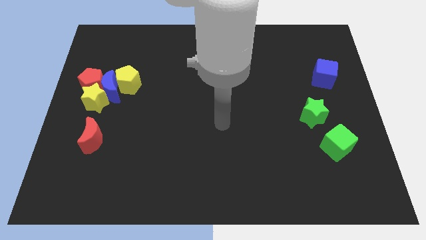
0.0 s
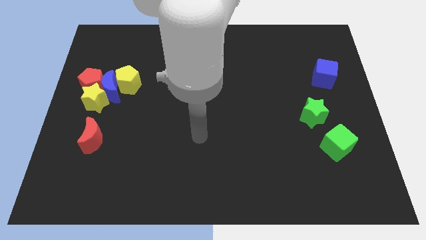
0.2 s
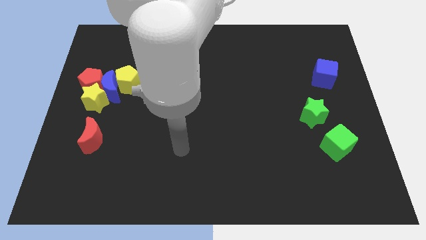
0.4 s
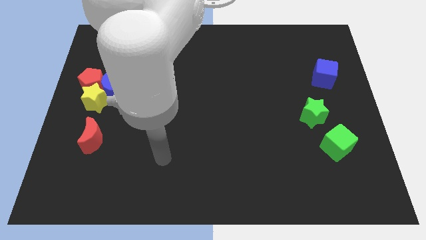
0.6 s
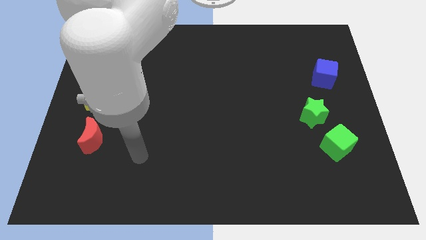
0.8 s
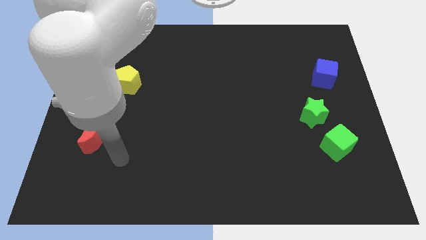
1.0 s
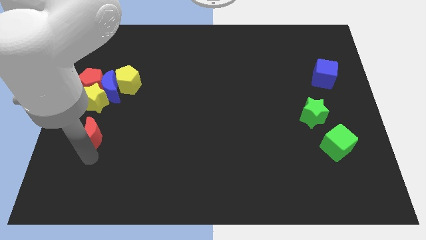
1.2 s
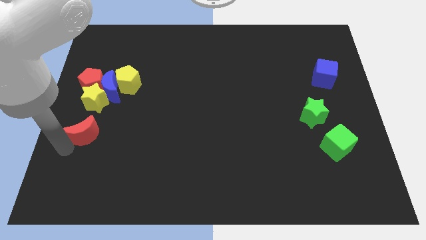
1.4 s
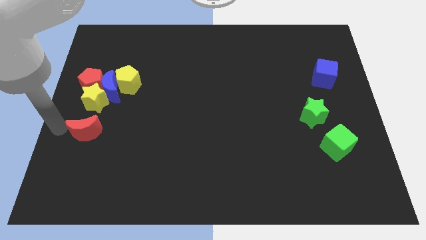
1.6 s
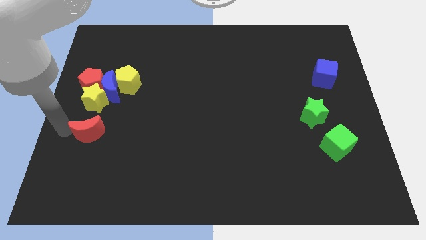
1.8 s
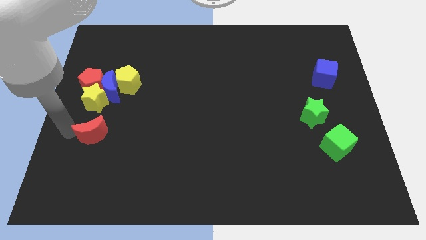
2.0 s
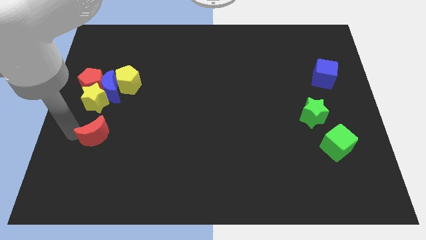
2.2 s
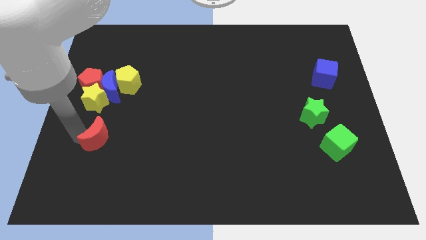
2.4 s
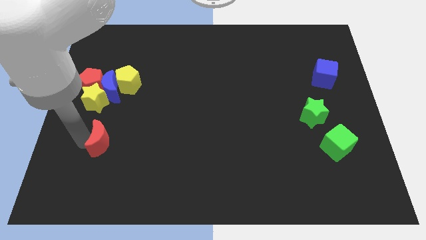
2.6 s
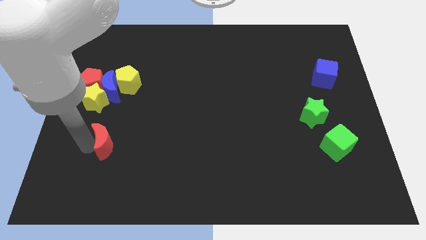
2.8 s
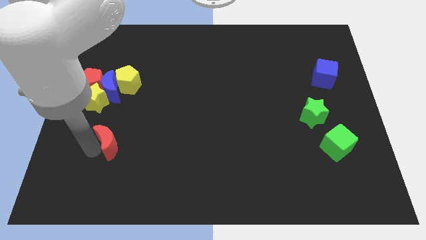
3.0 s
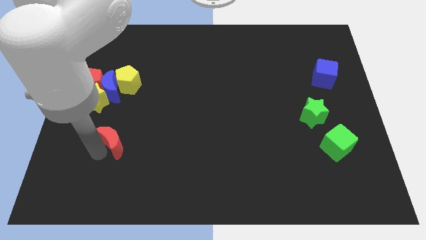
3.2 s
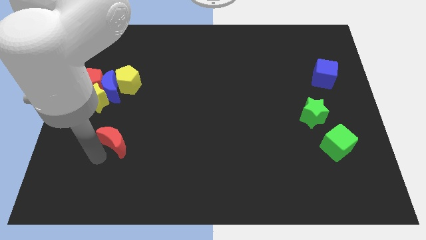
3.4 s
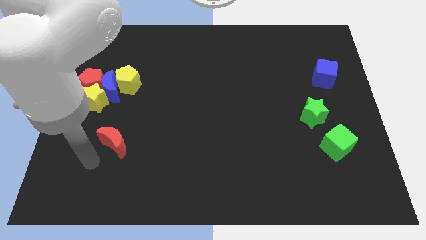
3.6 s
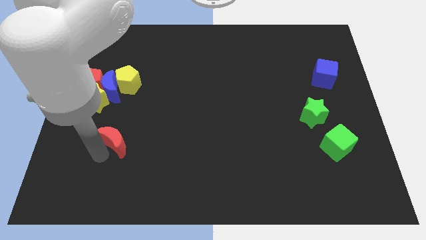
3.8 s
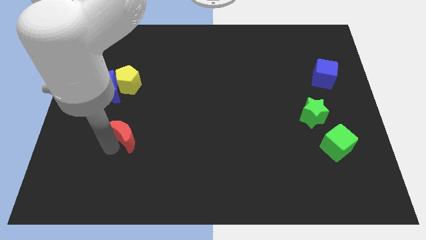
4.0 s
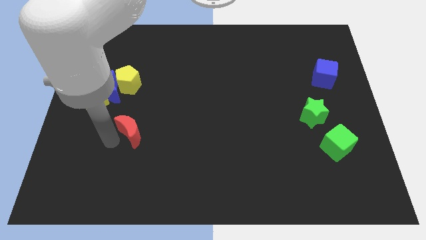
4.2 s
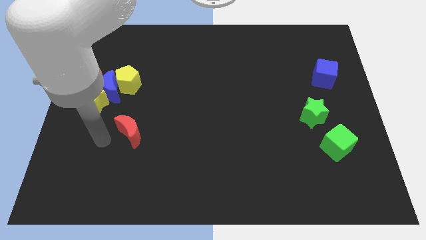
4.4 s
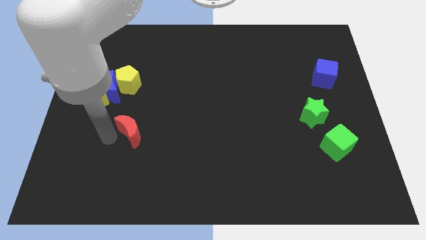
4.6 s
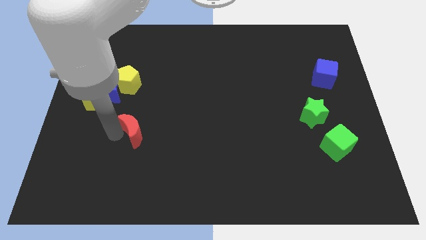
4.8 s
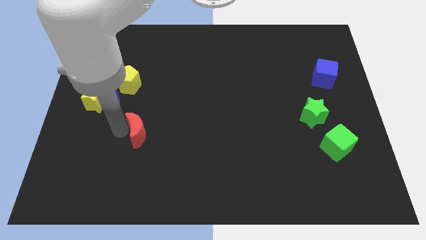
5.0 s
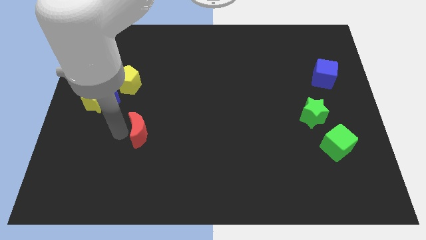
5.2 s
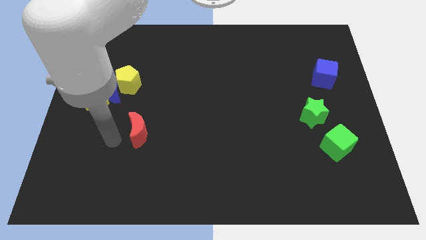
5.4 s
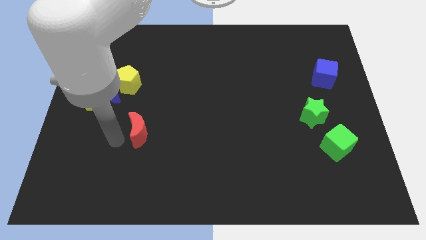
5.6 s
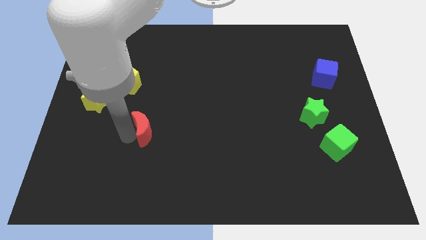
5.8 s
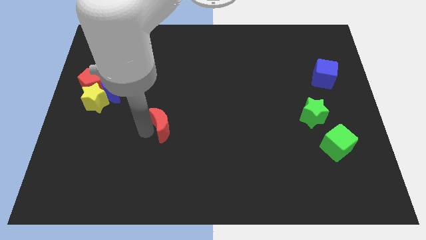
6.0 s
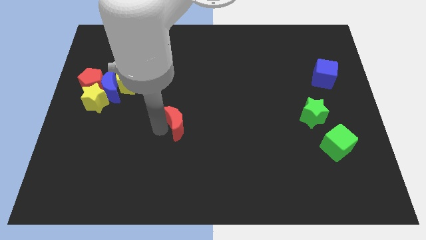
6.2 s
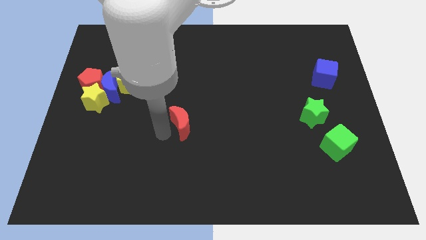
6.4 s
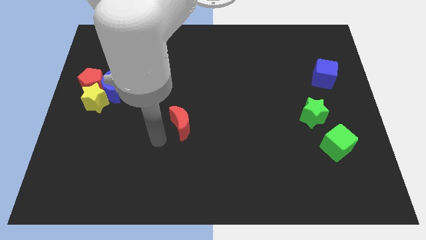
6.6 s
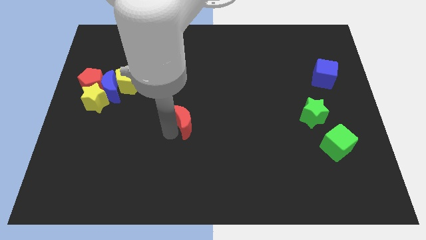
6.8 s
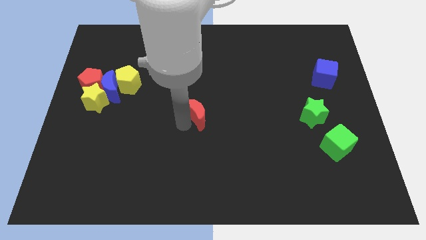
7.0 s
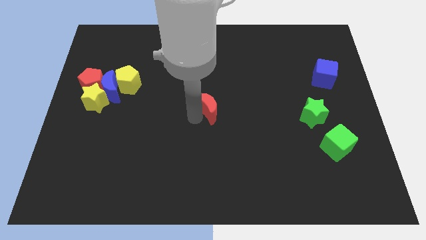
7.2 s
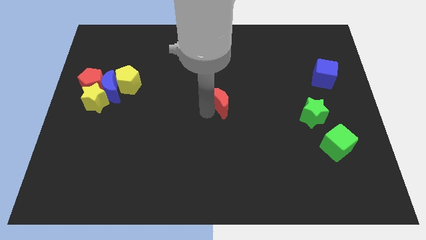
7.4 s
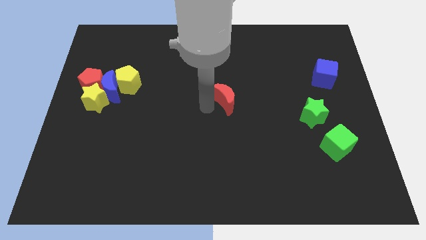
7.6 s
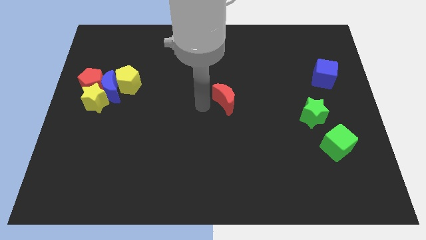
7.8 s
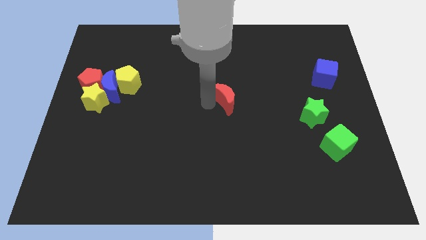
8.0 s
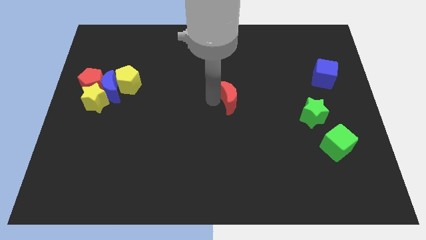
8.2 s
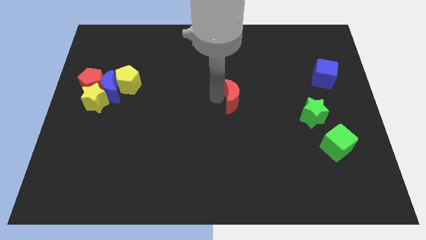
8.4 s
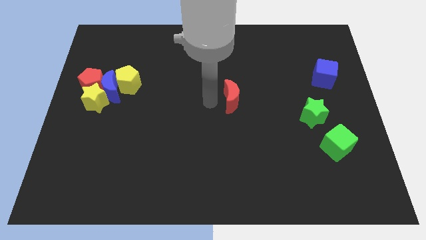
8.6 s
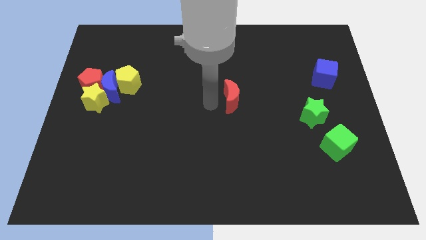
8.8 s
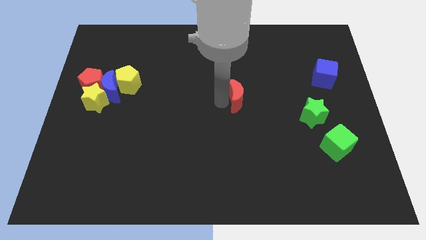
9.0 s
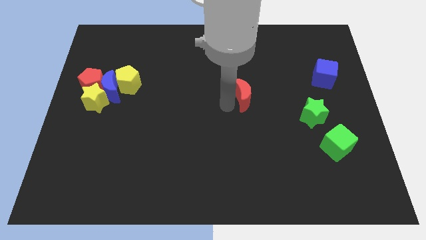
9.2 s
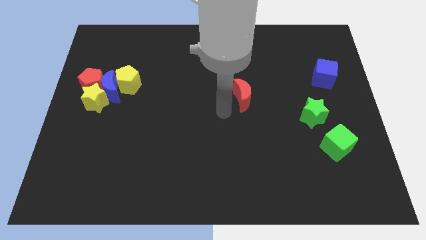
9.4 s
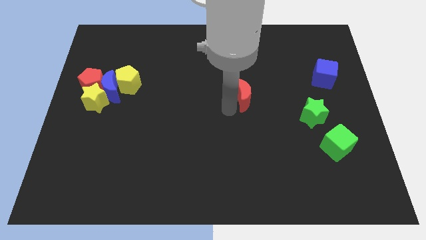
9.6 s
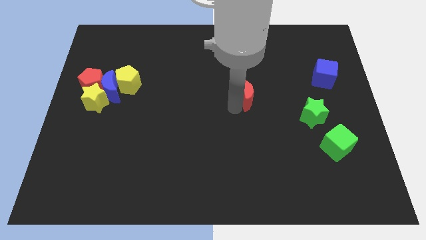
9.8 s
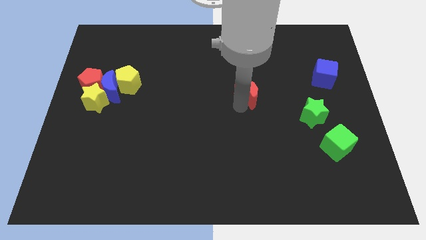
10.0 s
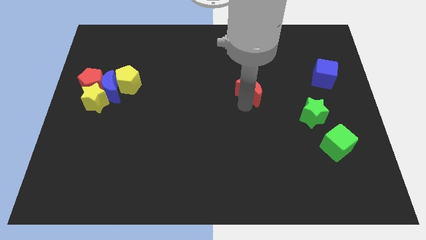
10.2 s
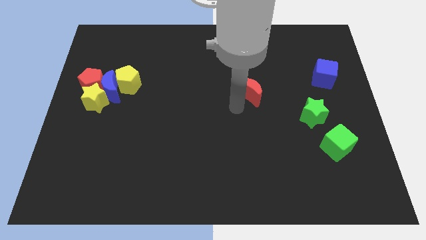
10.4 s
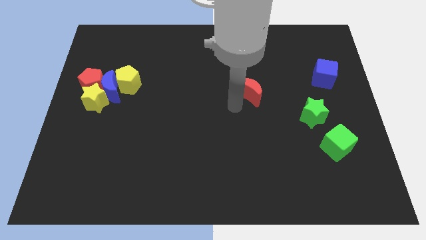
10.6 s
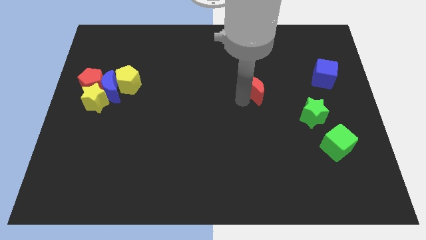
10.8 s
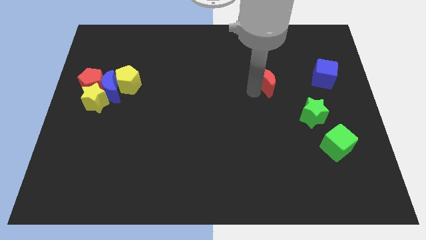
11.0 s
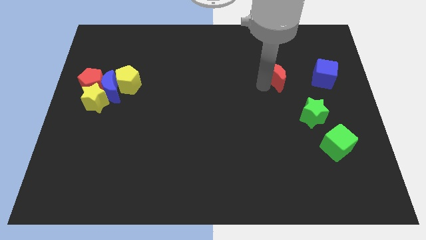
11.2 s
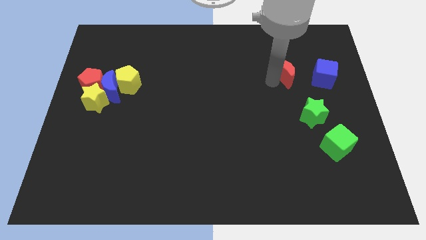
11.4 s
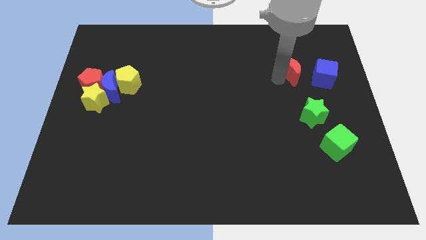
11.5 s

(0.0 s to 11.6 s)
slide the red moon to the top left of the blue cube

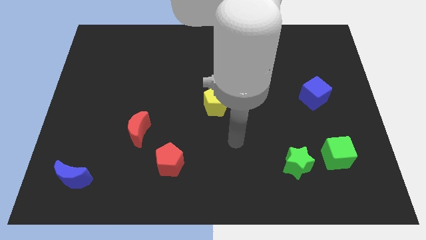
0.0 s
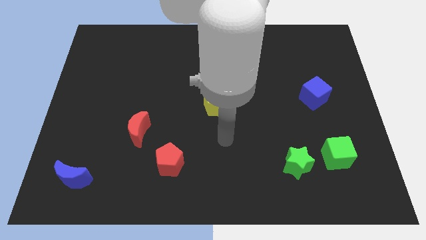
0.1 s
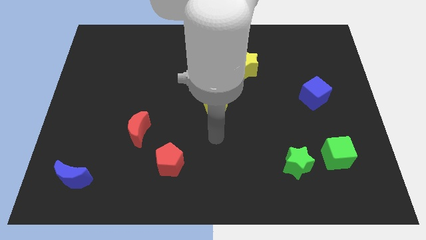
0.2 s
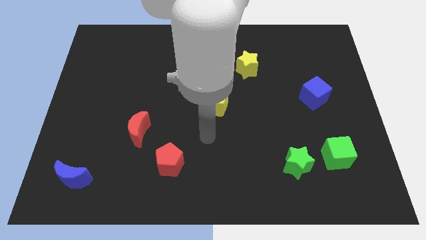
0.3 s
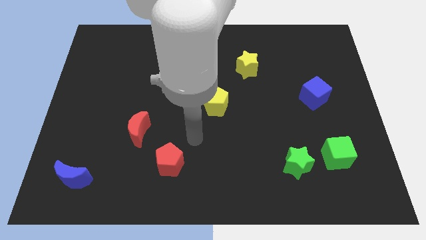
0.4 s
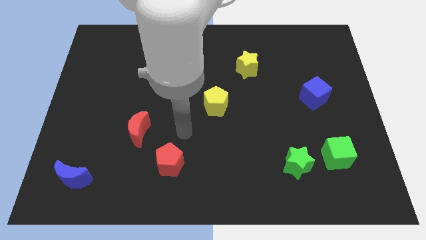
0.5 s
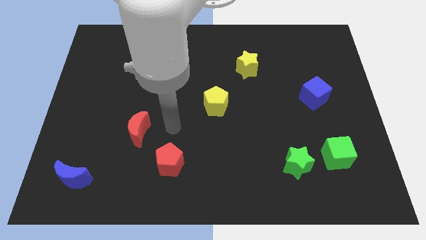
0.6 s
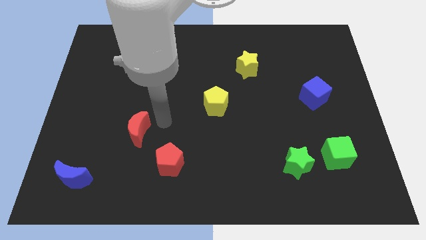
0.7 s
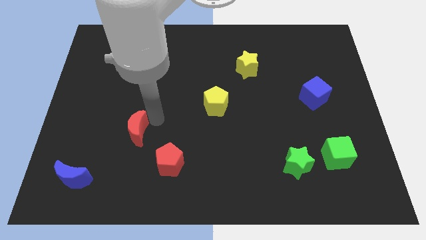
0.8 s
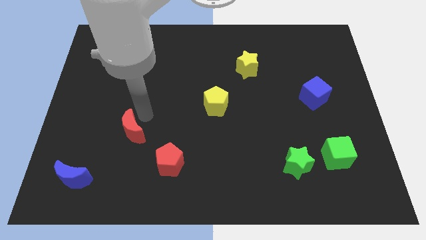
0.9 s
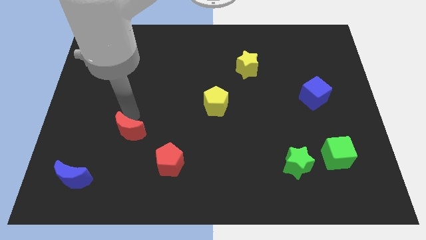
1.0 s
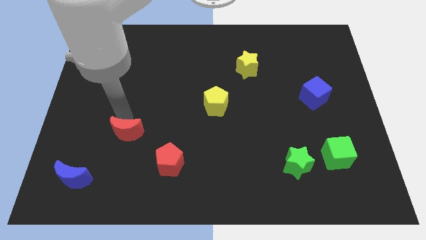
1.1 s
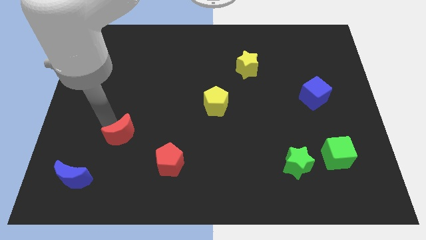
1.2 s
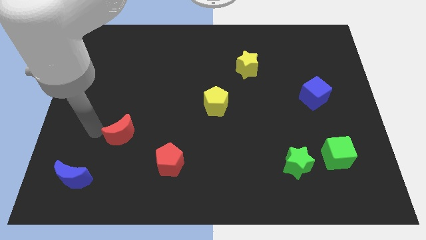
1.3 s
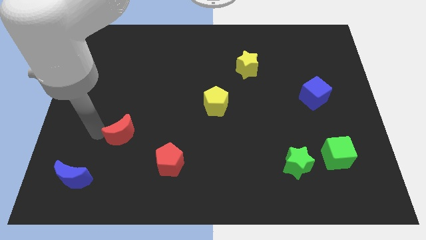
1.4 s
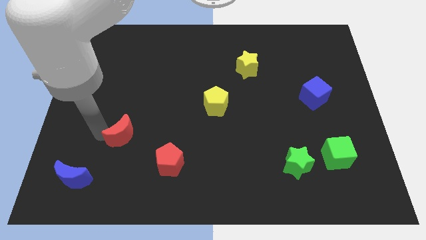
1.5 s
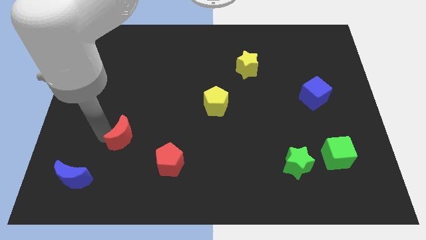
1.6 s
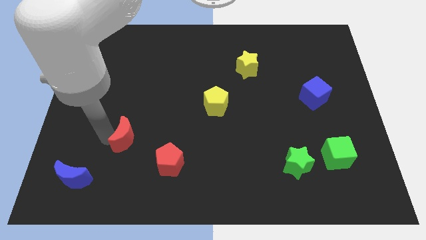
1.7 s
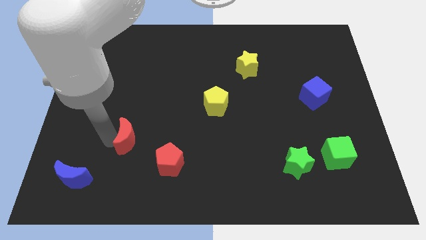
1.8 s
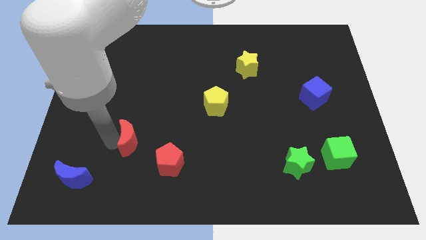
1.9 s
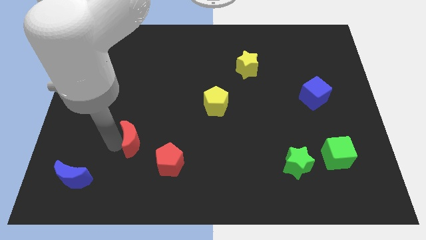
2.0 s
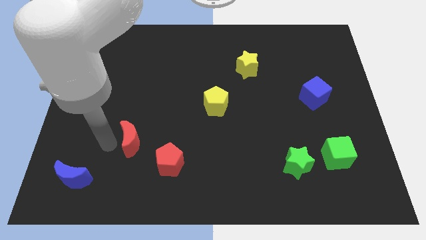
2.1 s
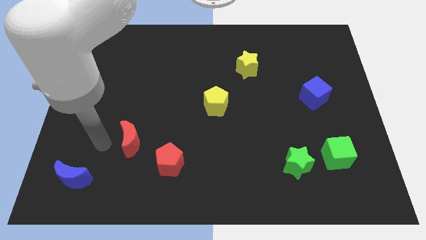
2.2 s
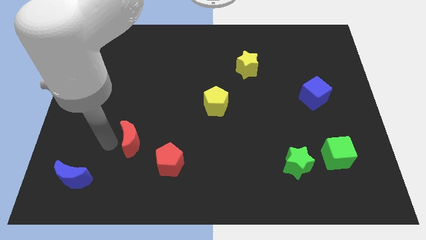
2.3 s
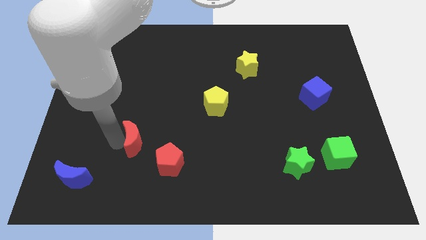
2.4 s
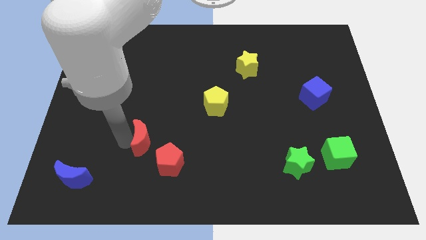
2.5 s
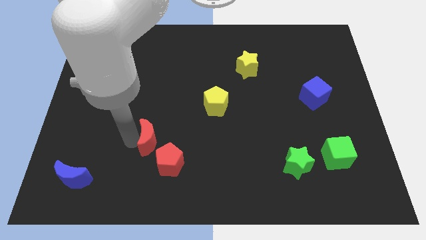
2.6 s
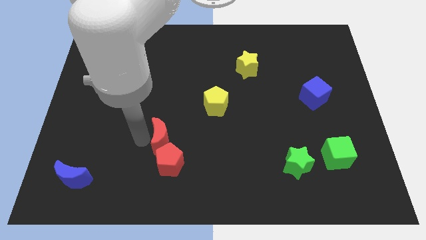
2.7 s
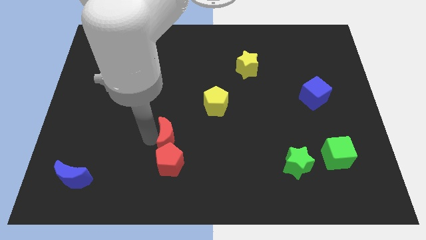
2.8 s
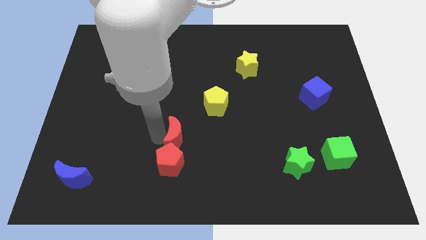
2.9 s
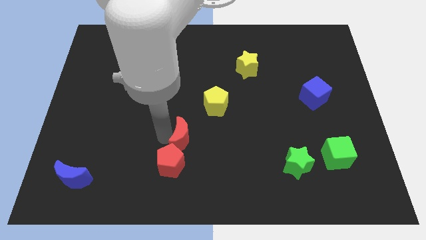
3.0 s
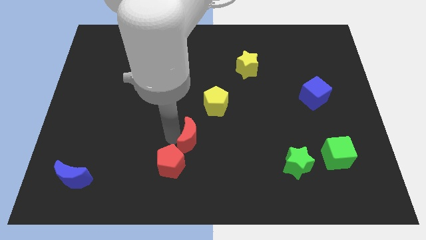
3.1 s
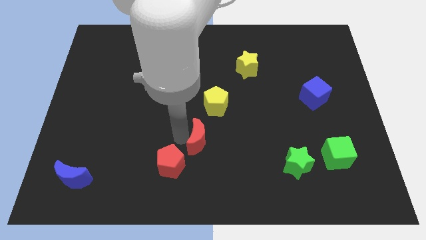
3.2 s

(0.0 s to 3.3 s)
move the red moon below the yellow pentagon
